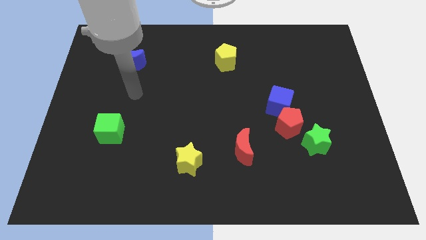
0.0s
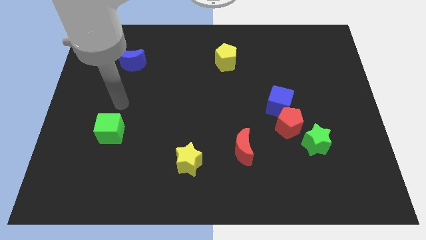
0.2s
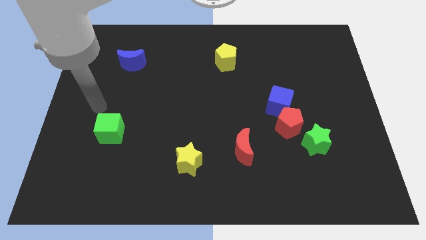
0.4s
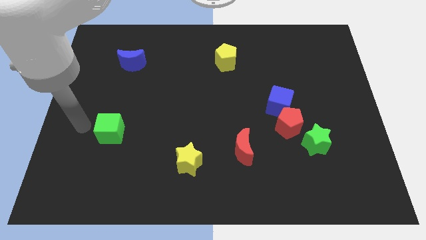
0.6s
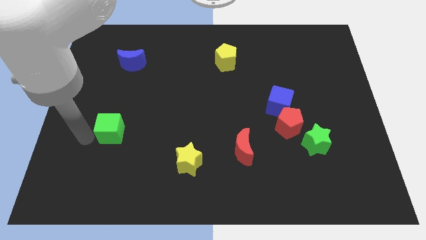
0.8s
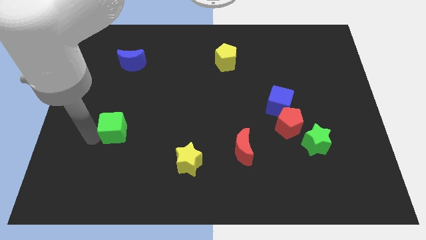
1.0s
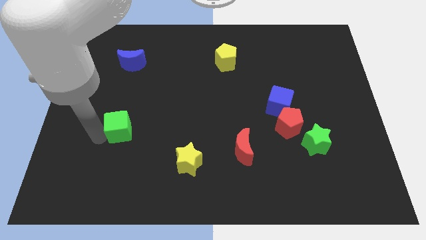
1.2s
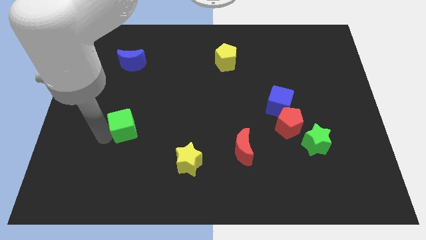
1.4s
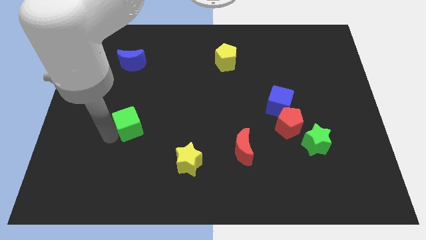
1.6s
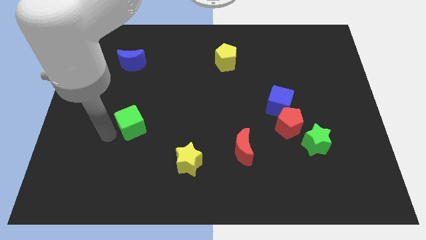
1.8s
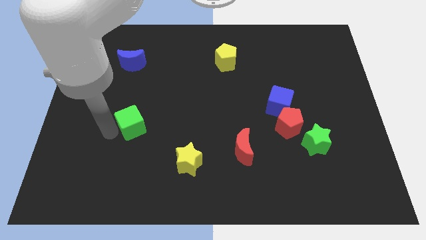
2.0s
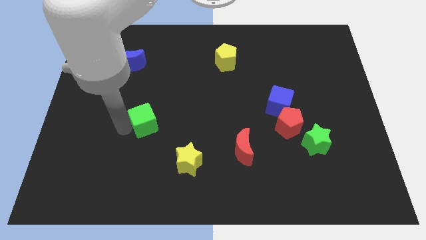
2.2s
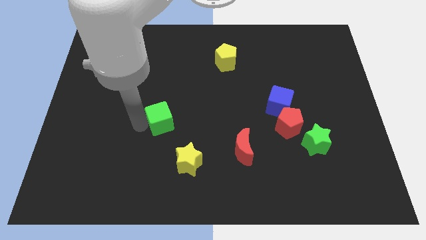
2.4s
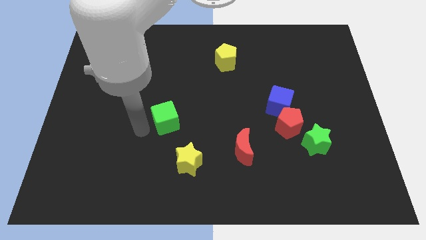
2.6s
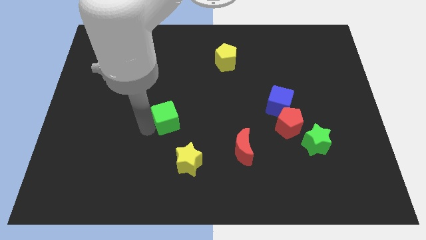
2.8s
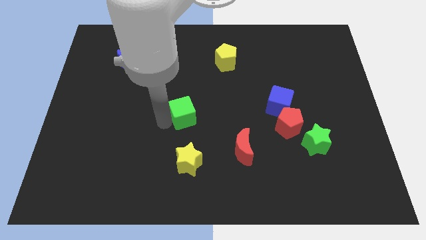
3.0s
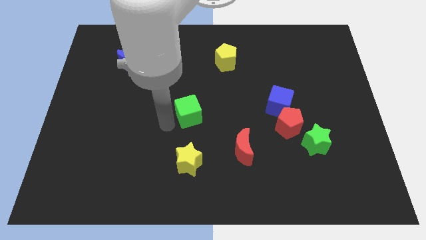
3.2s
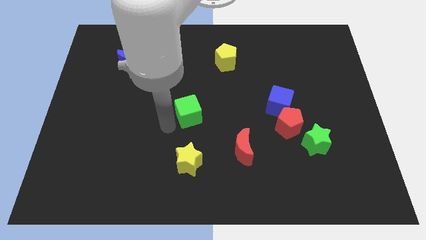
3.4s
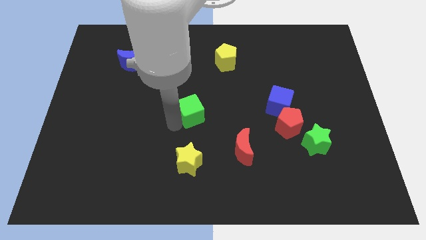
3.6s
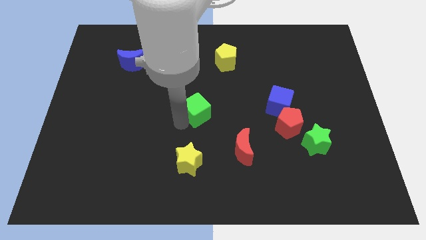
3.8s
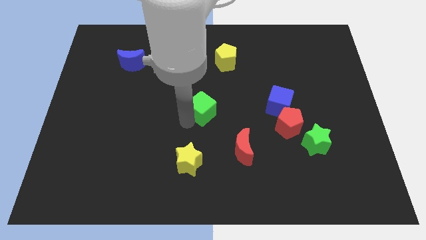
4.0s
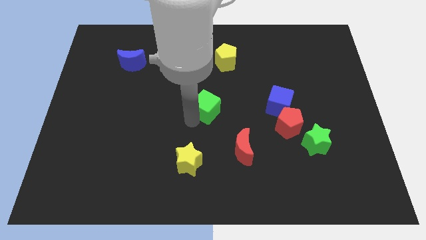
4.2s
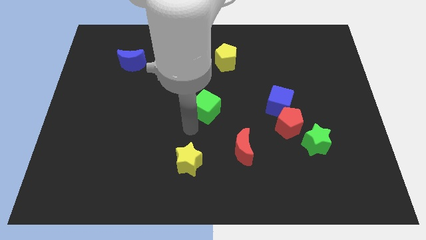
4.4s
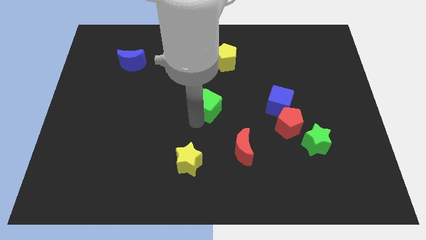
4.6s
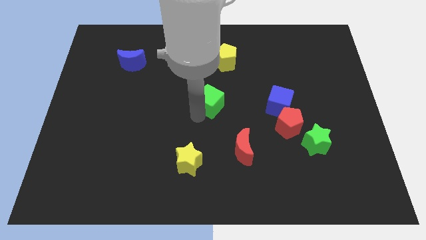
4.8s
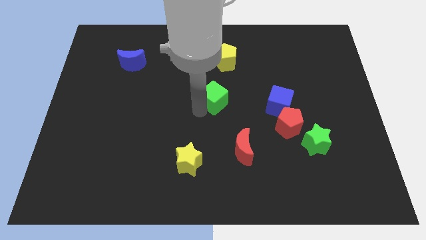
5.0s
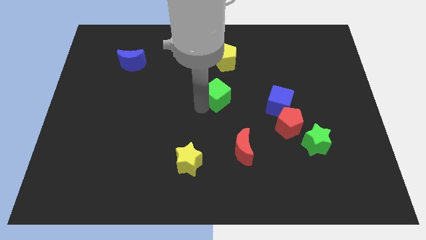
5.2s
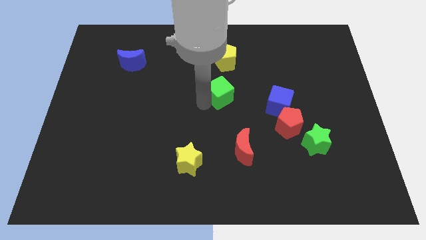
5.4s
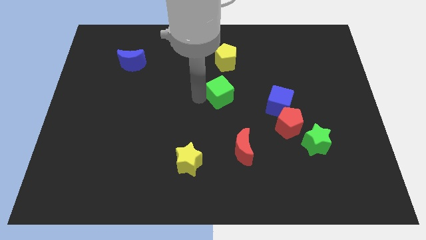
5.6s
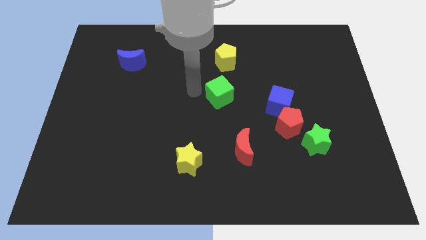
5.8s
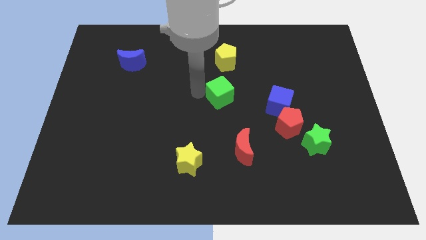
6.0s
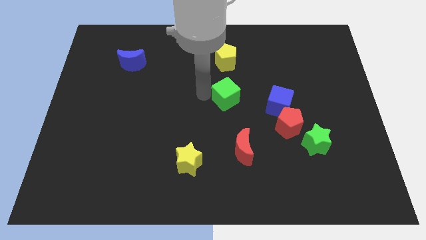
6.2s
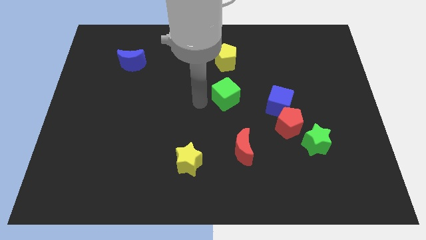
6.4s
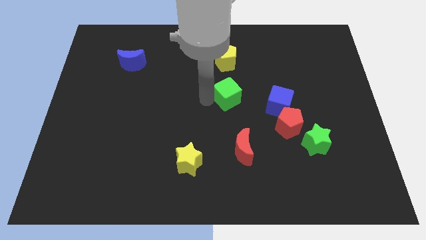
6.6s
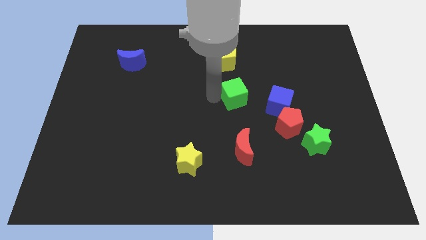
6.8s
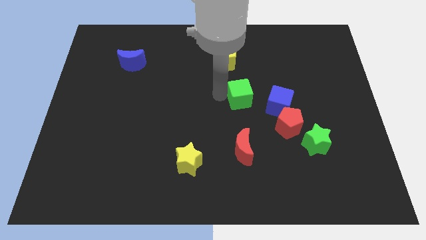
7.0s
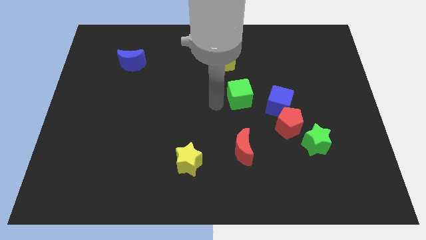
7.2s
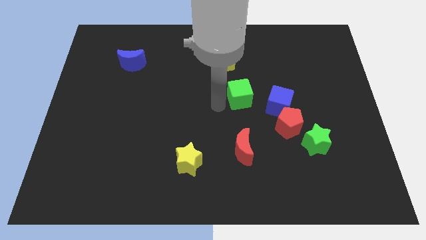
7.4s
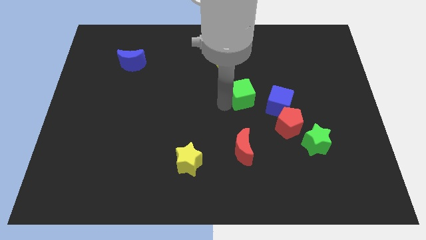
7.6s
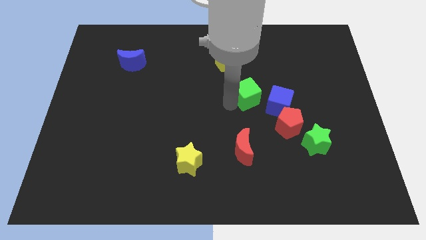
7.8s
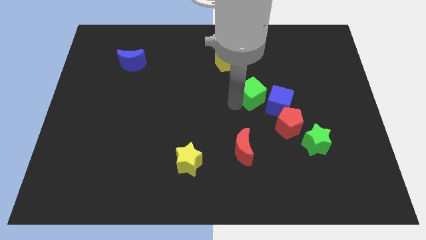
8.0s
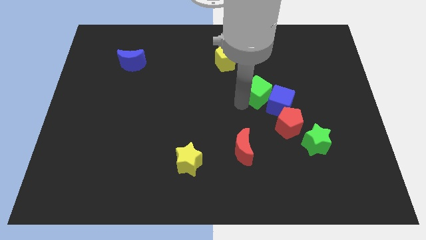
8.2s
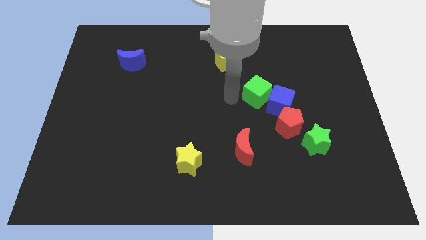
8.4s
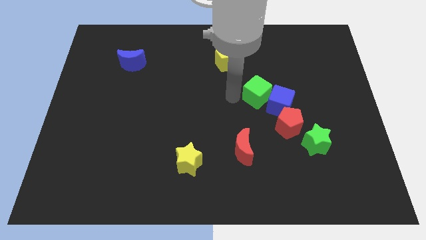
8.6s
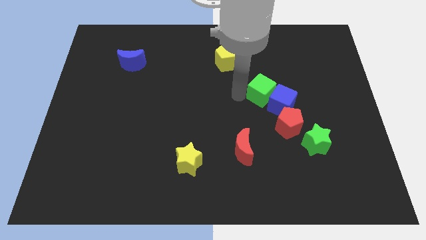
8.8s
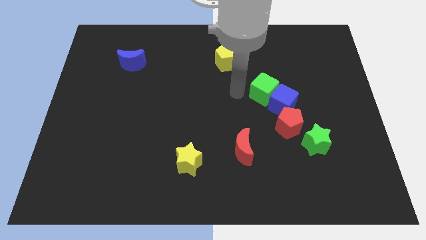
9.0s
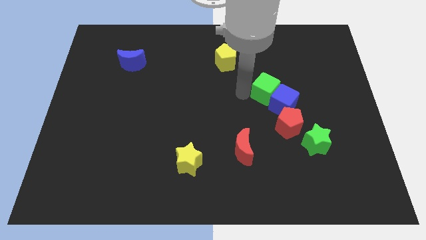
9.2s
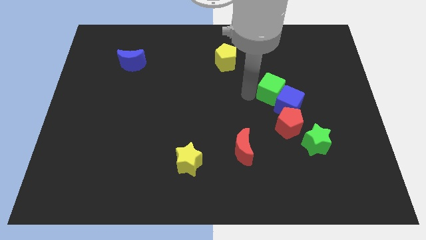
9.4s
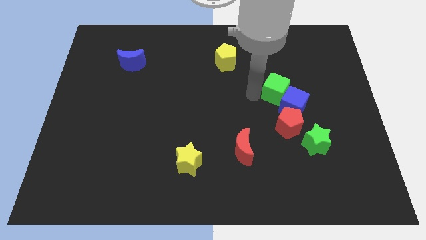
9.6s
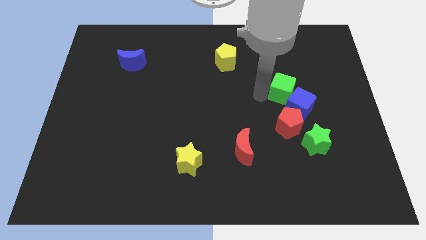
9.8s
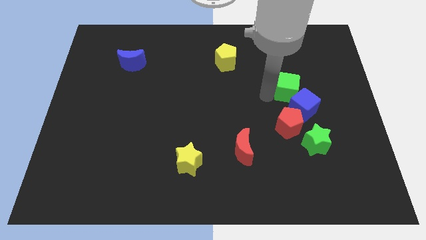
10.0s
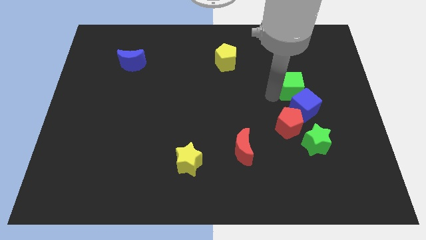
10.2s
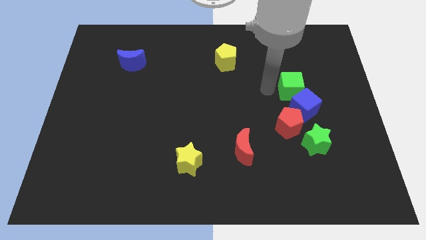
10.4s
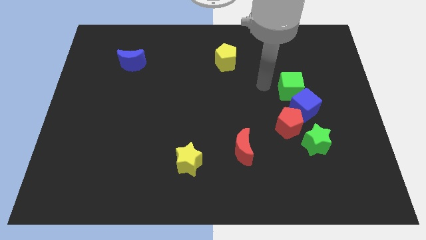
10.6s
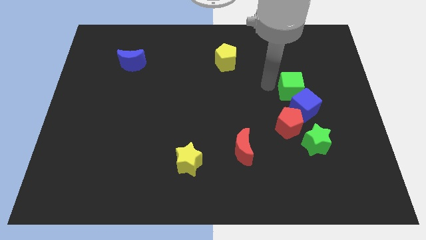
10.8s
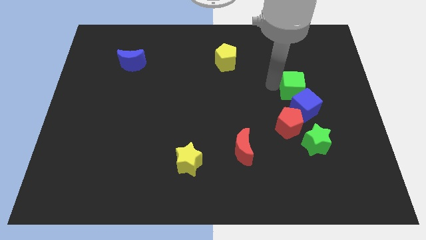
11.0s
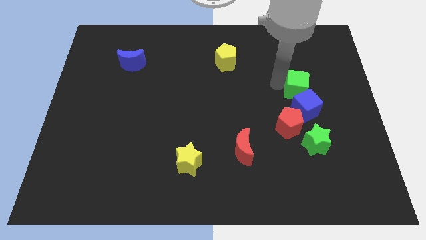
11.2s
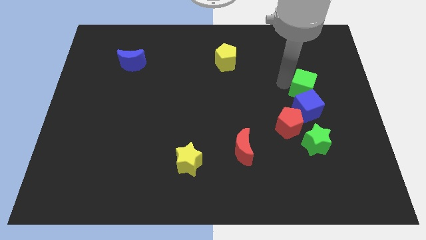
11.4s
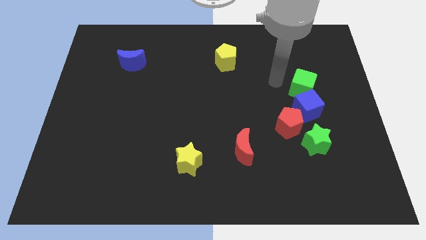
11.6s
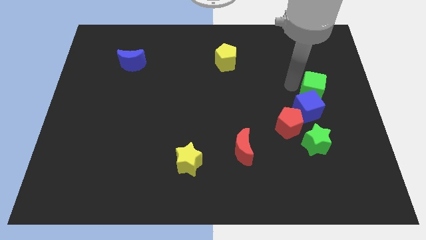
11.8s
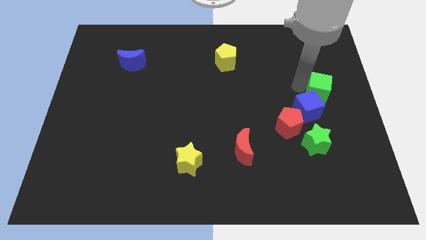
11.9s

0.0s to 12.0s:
put the green cube to the right side
